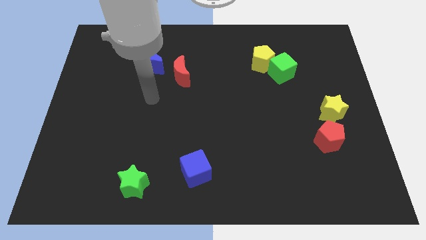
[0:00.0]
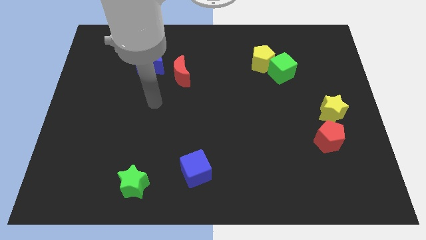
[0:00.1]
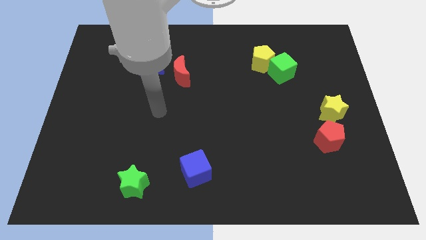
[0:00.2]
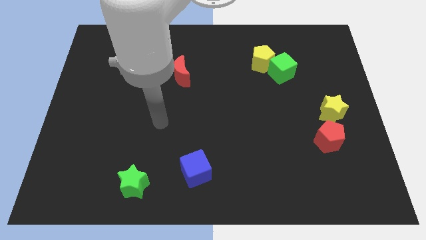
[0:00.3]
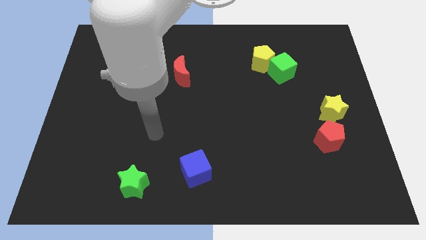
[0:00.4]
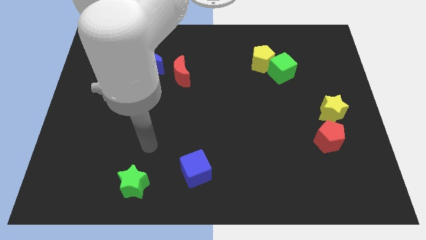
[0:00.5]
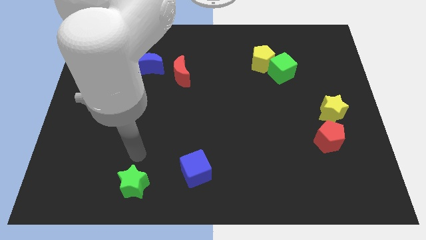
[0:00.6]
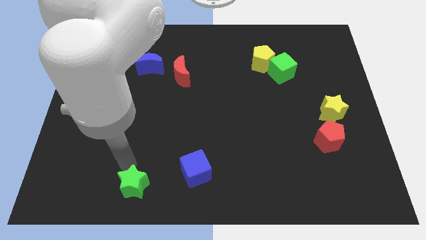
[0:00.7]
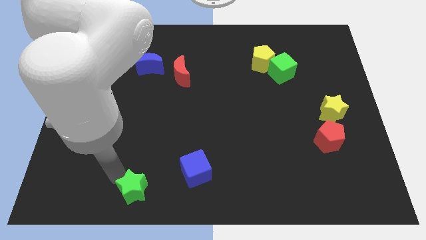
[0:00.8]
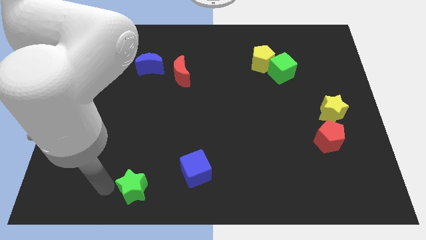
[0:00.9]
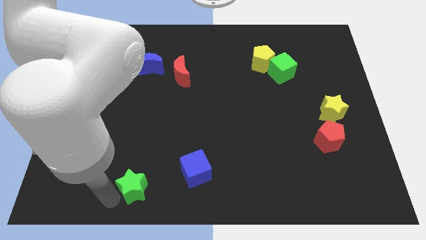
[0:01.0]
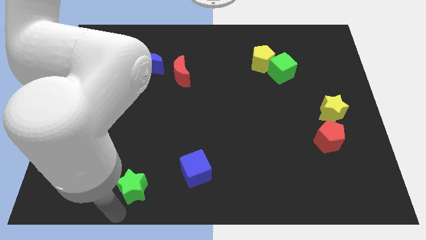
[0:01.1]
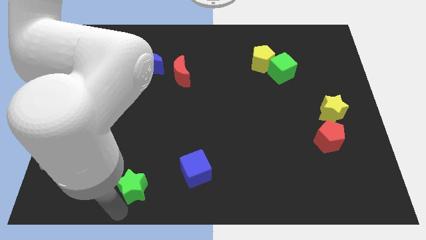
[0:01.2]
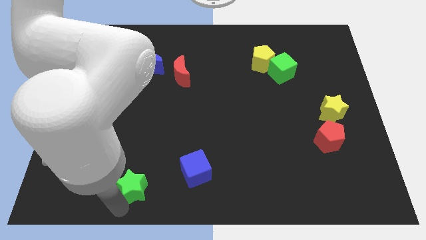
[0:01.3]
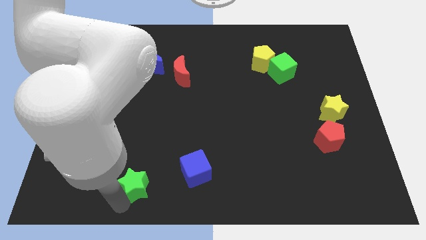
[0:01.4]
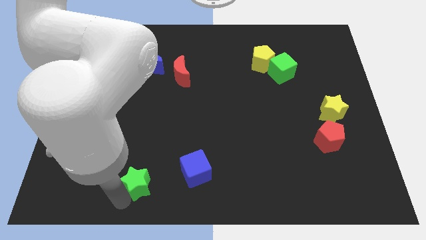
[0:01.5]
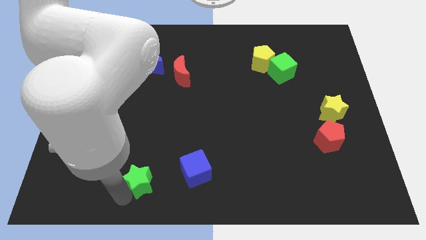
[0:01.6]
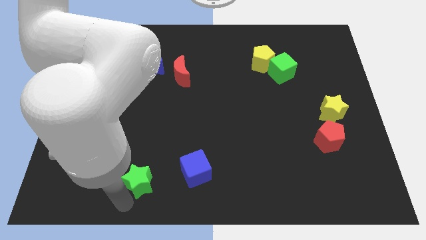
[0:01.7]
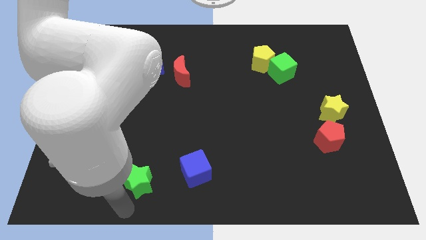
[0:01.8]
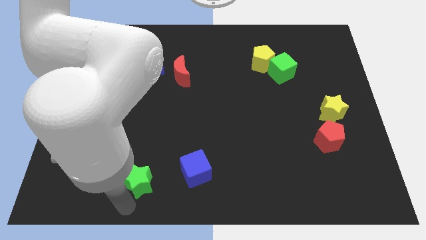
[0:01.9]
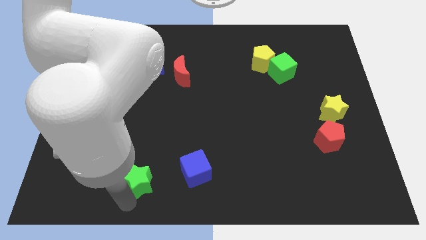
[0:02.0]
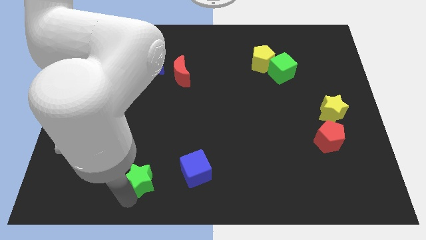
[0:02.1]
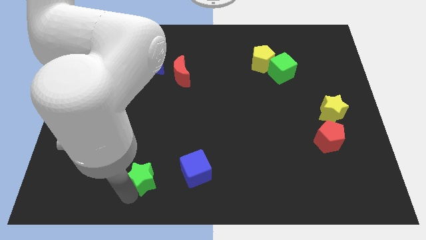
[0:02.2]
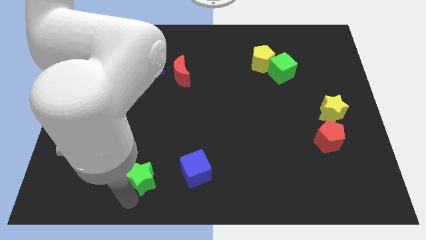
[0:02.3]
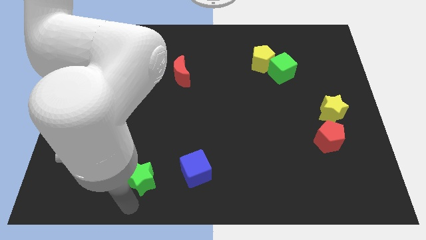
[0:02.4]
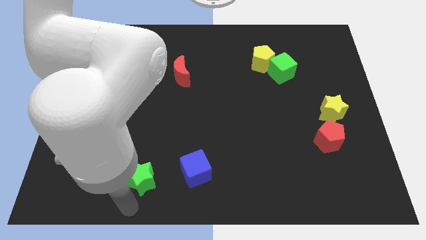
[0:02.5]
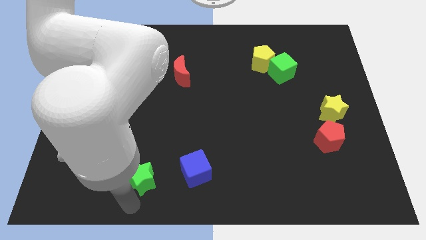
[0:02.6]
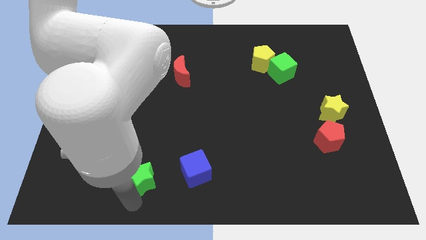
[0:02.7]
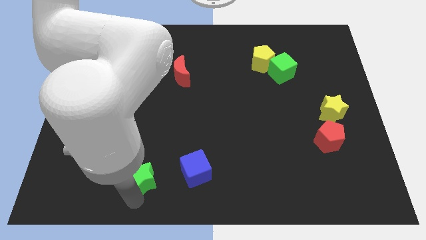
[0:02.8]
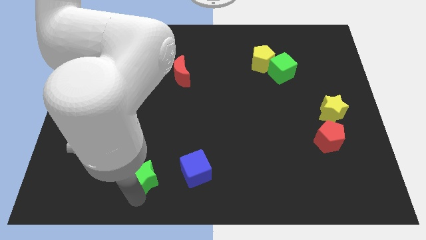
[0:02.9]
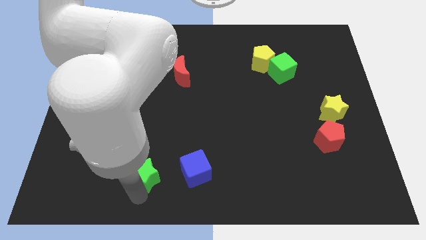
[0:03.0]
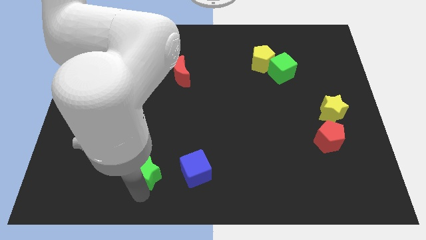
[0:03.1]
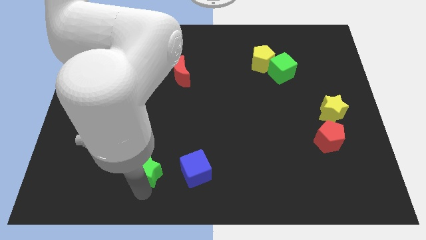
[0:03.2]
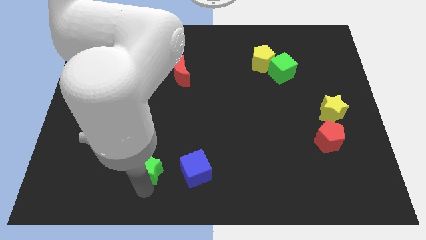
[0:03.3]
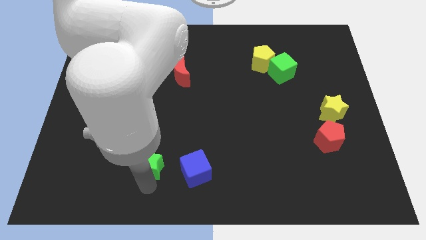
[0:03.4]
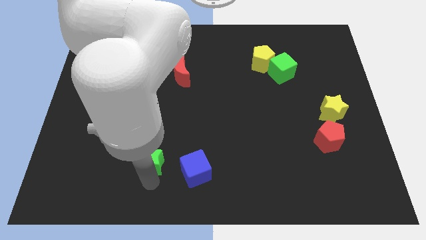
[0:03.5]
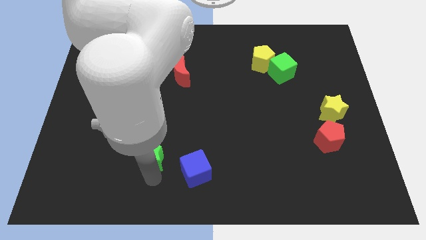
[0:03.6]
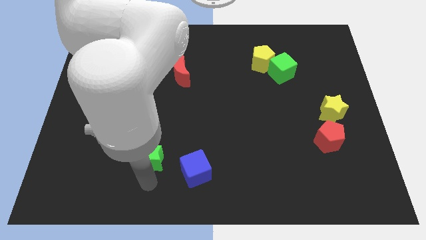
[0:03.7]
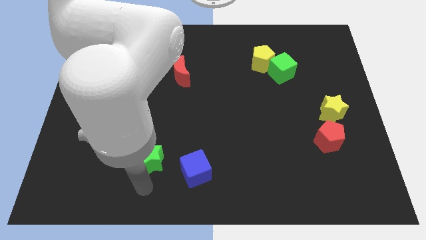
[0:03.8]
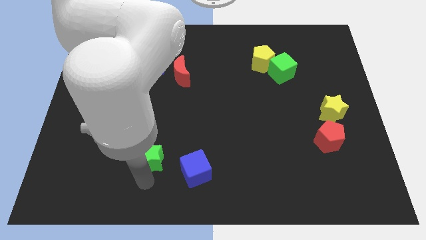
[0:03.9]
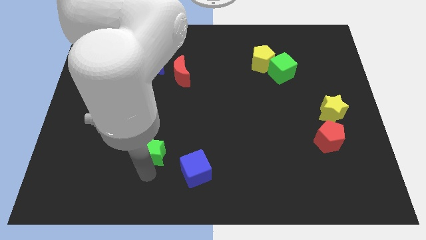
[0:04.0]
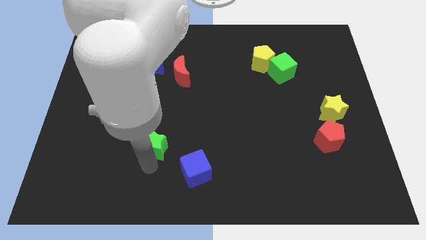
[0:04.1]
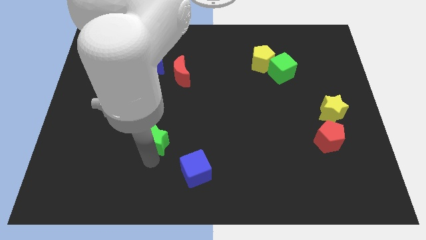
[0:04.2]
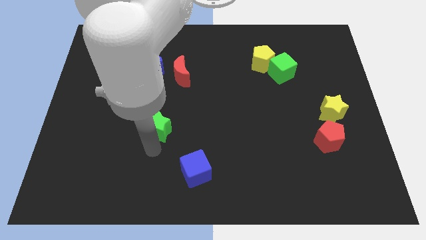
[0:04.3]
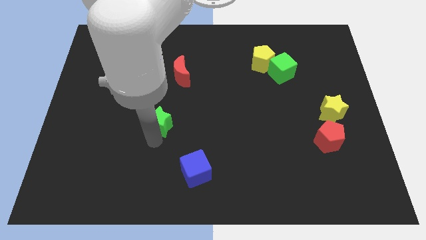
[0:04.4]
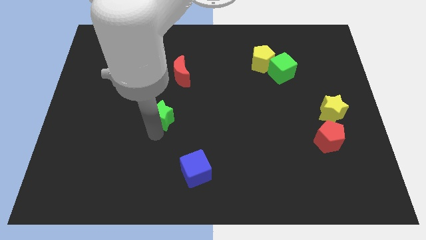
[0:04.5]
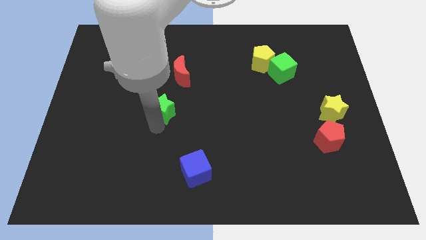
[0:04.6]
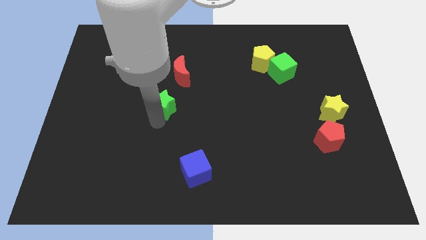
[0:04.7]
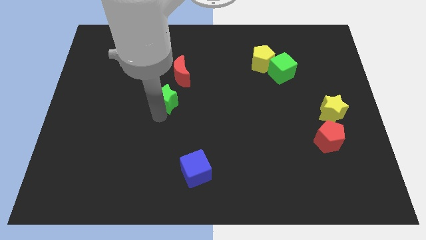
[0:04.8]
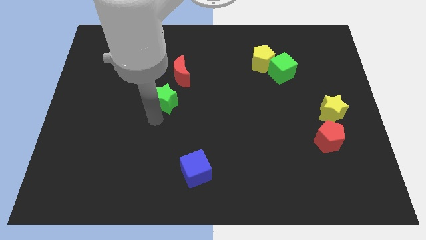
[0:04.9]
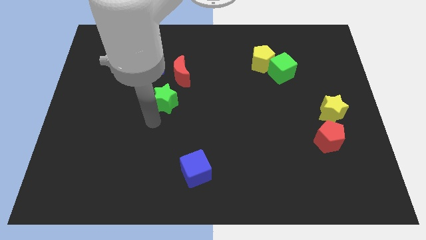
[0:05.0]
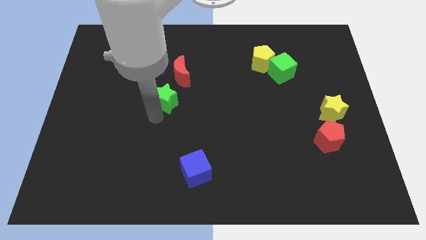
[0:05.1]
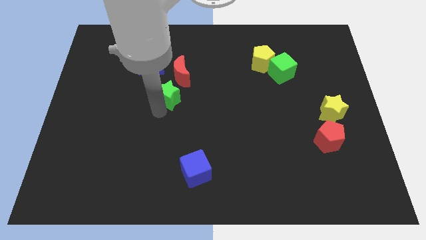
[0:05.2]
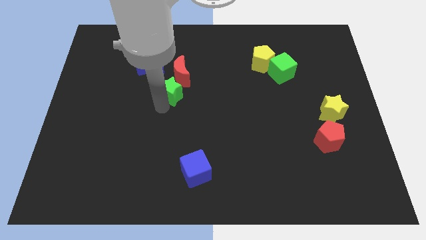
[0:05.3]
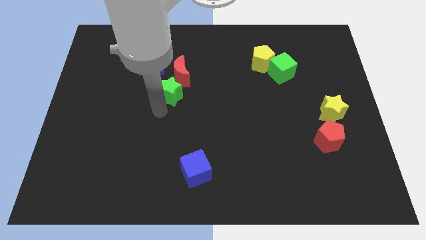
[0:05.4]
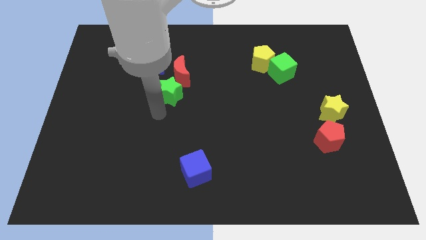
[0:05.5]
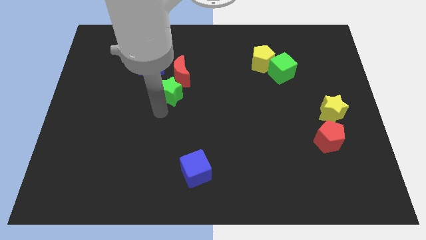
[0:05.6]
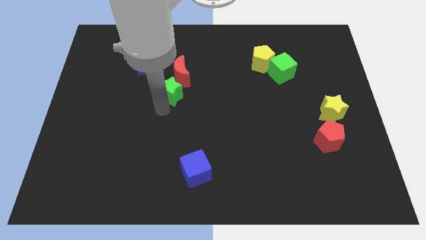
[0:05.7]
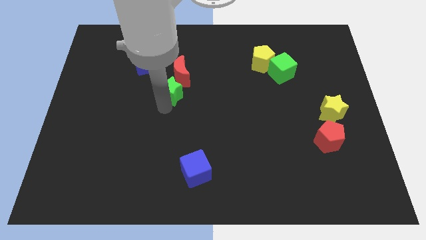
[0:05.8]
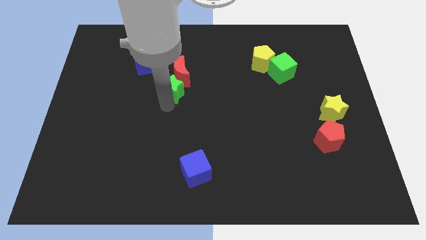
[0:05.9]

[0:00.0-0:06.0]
push the green star towards the red moon

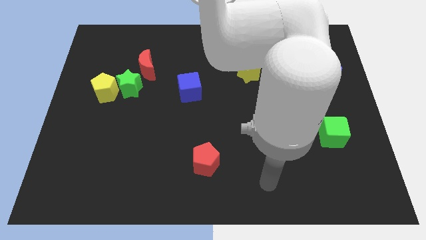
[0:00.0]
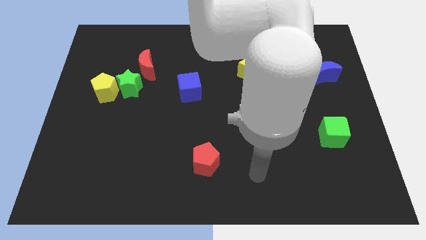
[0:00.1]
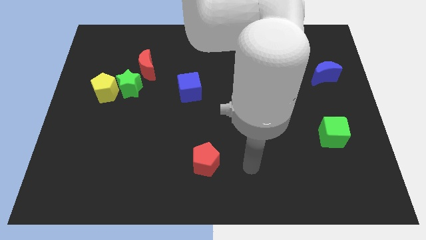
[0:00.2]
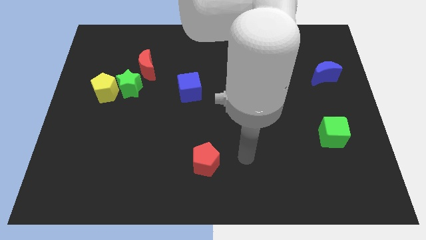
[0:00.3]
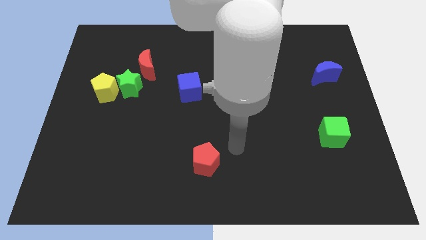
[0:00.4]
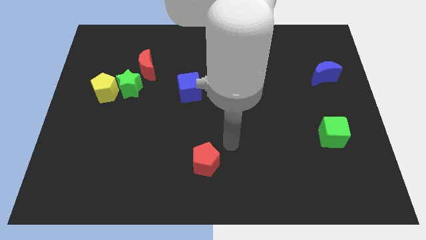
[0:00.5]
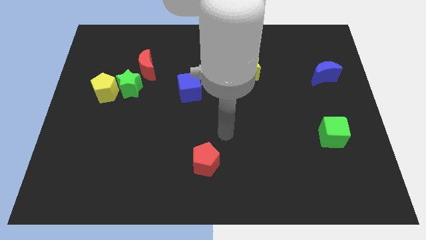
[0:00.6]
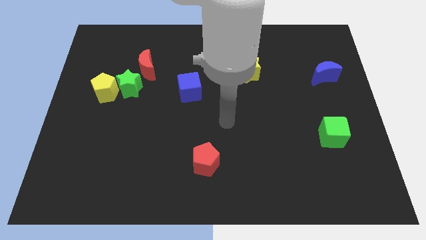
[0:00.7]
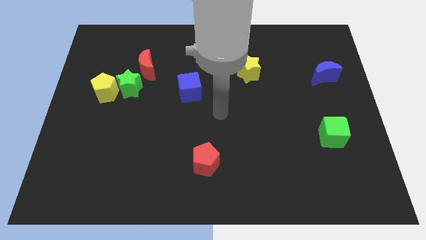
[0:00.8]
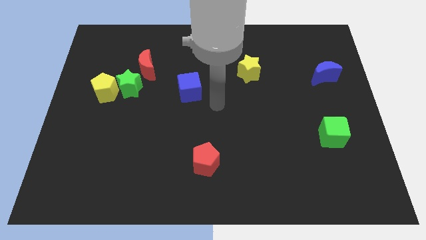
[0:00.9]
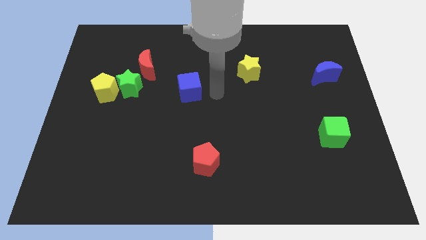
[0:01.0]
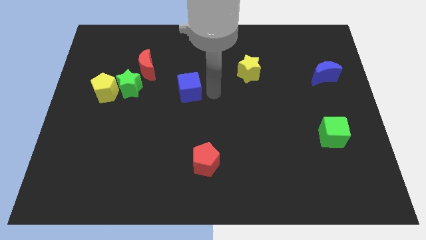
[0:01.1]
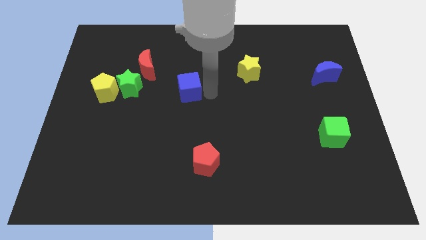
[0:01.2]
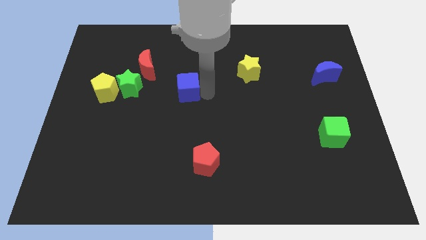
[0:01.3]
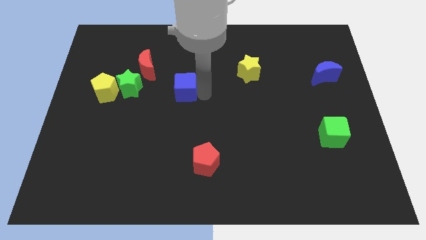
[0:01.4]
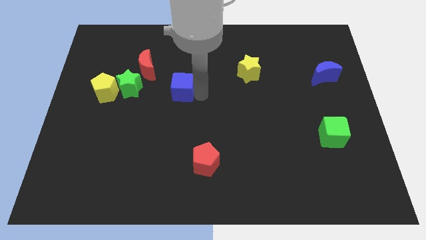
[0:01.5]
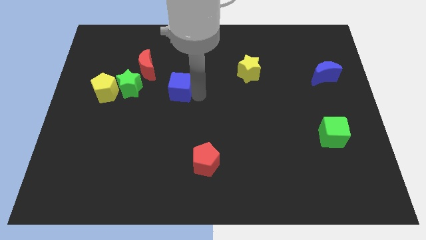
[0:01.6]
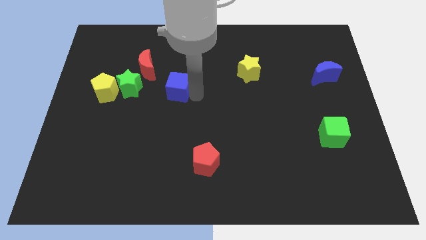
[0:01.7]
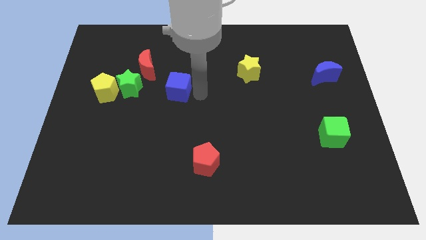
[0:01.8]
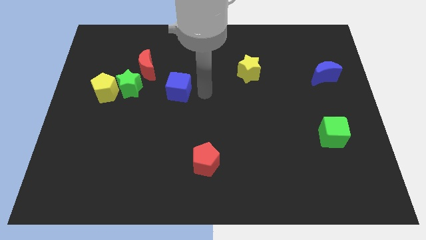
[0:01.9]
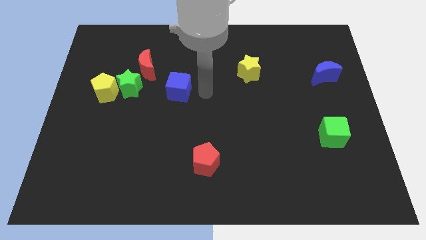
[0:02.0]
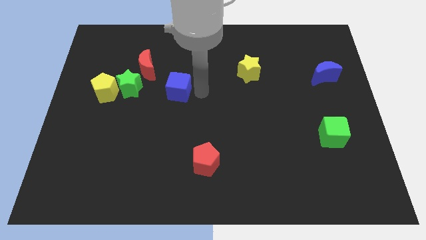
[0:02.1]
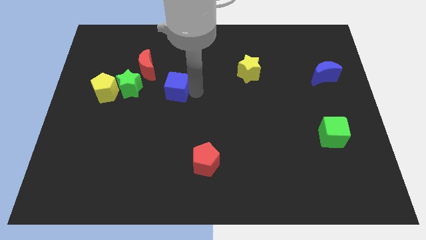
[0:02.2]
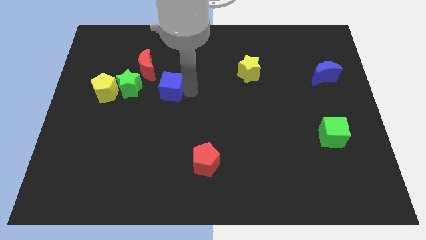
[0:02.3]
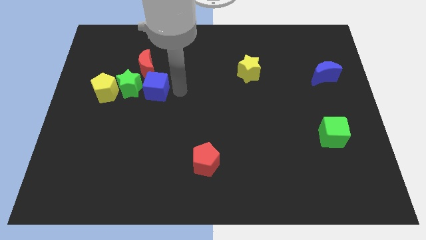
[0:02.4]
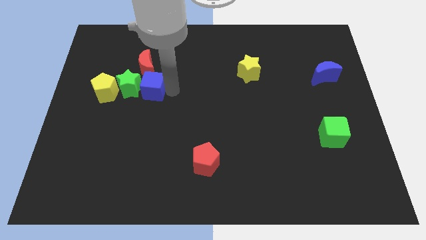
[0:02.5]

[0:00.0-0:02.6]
slide the blue cube towards the green star
